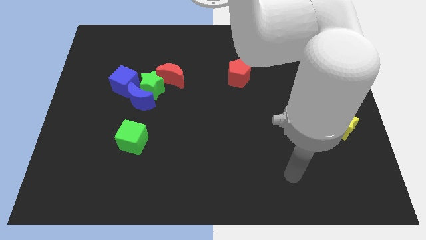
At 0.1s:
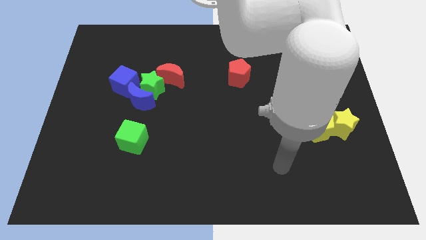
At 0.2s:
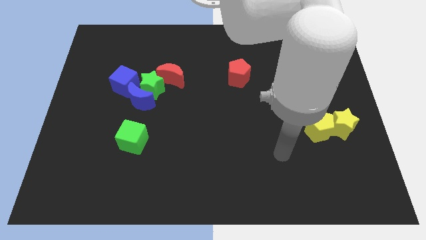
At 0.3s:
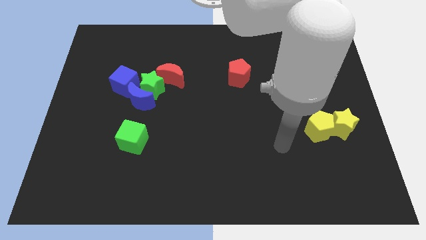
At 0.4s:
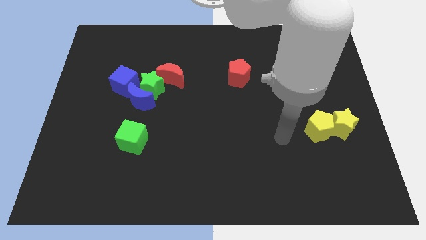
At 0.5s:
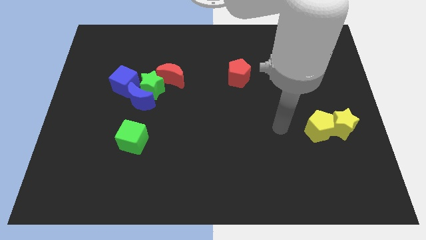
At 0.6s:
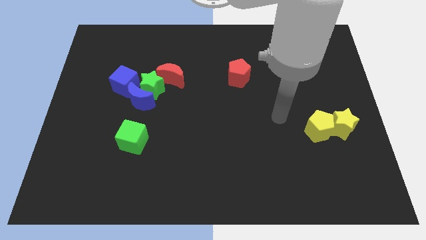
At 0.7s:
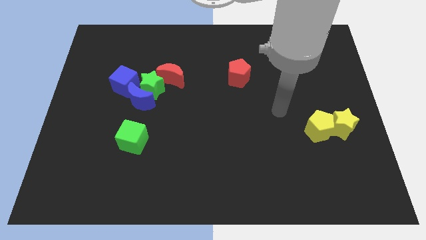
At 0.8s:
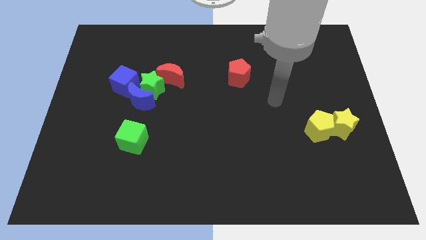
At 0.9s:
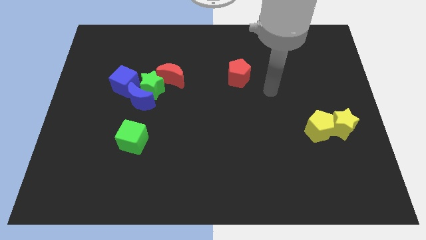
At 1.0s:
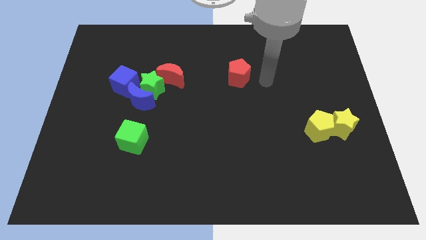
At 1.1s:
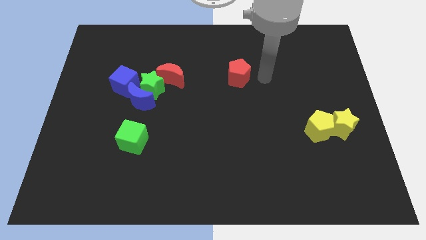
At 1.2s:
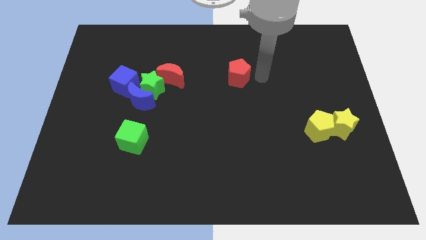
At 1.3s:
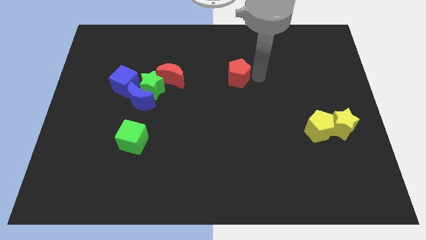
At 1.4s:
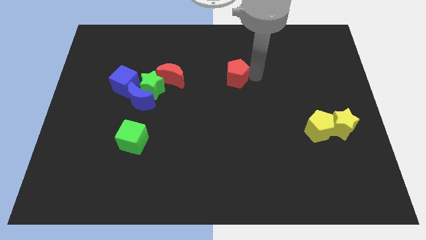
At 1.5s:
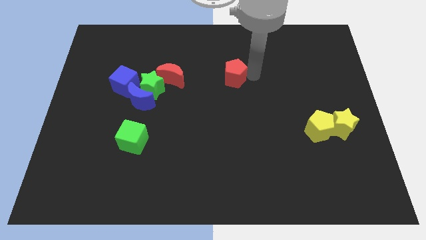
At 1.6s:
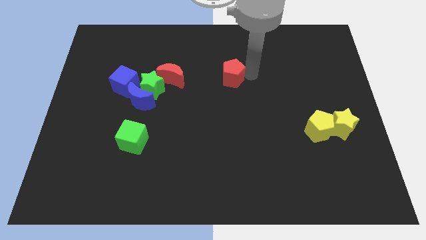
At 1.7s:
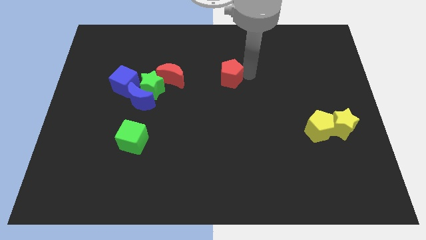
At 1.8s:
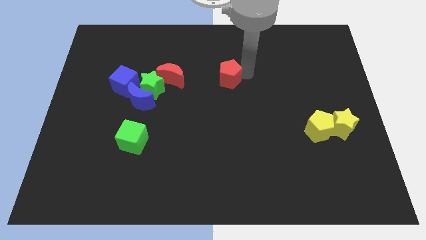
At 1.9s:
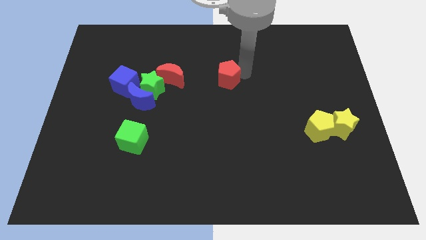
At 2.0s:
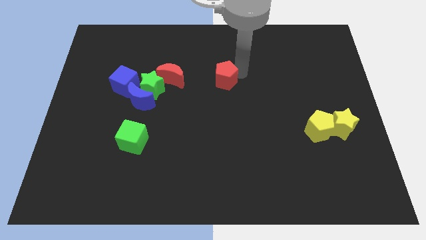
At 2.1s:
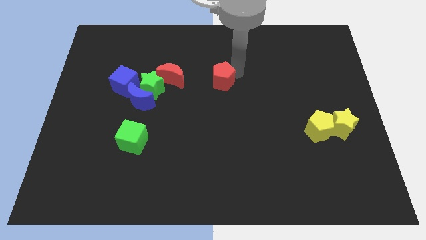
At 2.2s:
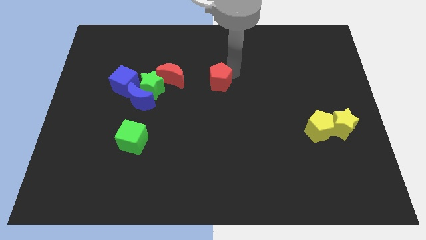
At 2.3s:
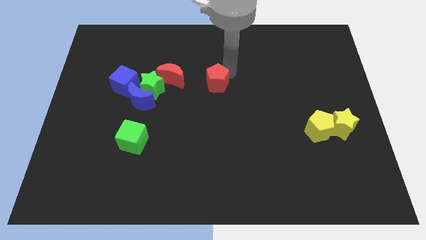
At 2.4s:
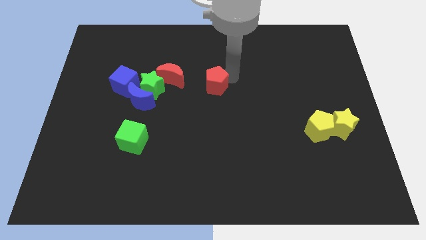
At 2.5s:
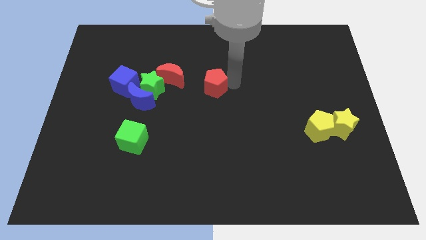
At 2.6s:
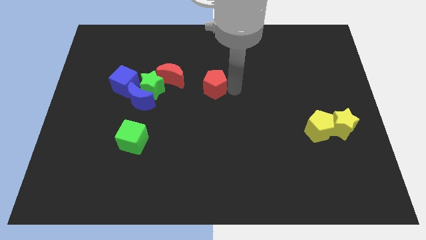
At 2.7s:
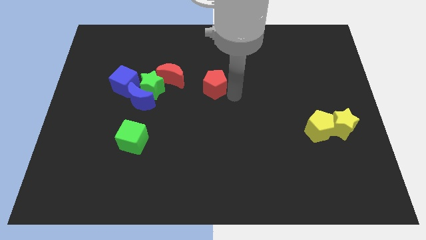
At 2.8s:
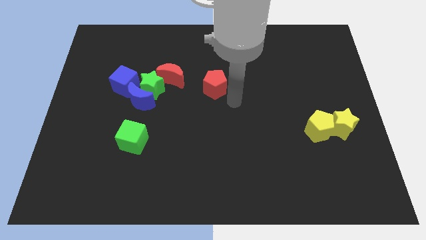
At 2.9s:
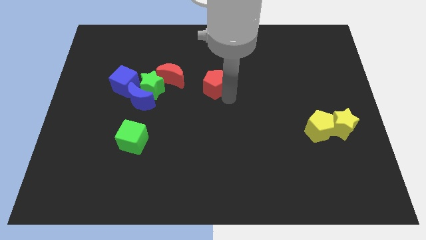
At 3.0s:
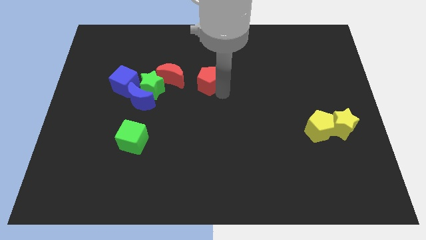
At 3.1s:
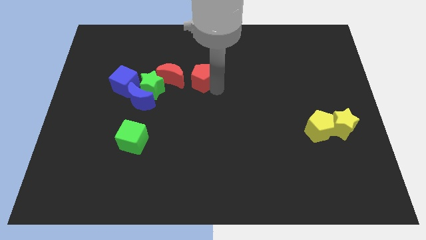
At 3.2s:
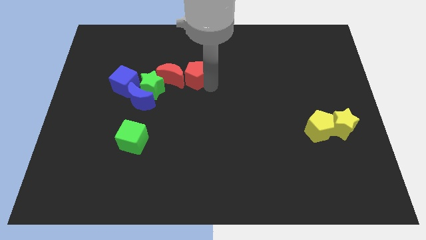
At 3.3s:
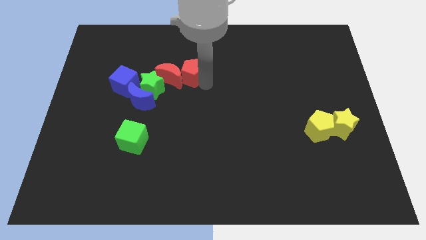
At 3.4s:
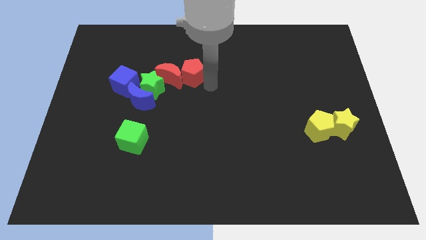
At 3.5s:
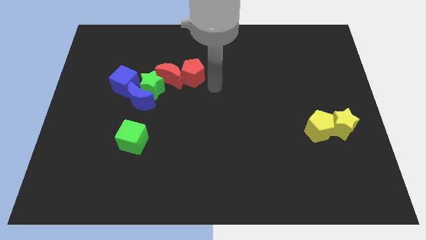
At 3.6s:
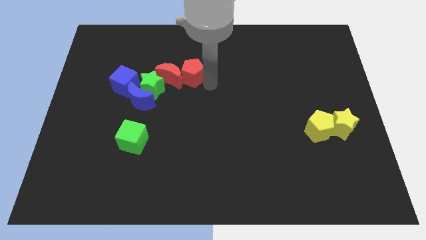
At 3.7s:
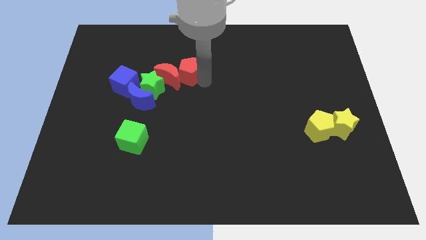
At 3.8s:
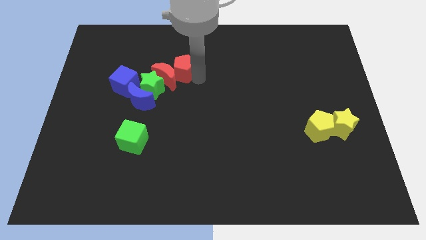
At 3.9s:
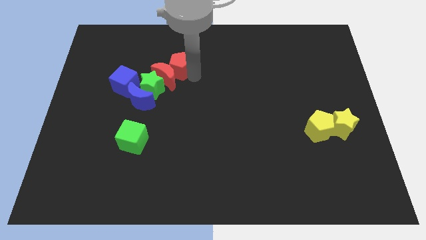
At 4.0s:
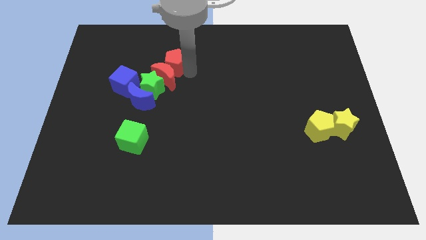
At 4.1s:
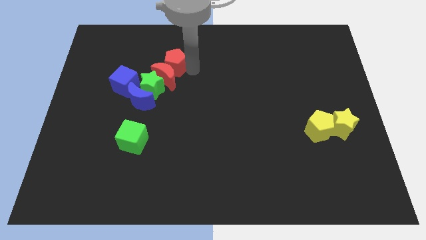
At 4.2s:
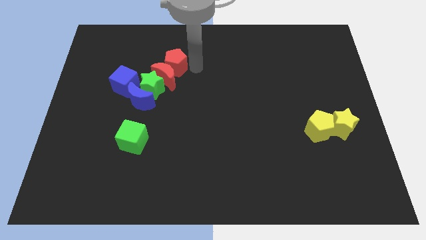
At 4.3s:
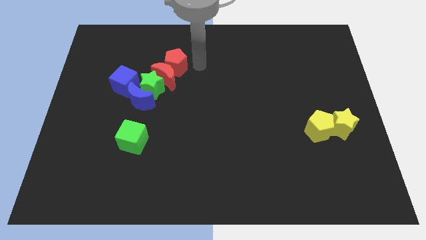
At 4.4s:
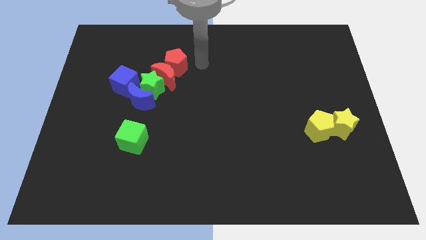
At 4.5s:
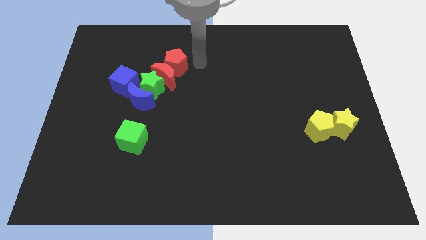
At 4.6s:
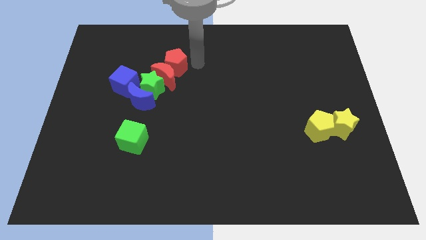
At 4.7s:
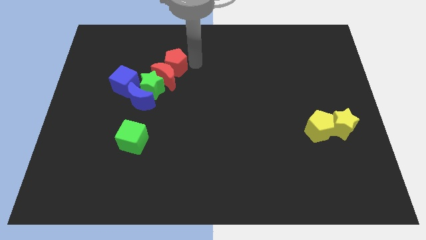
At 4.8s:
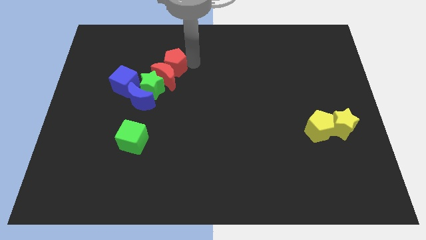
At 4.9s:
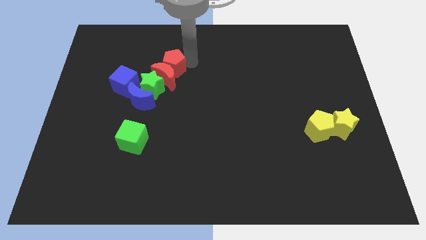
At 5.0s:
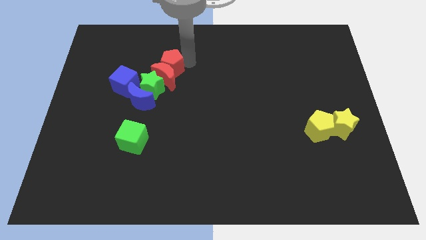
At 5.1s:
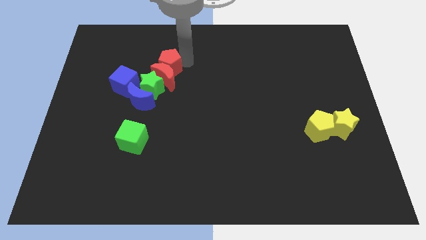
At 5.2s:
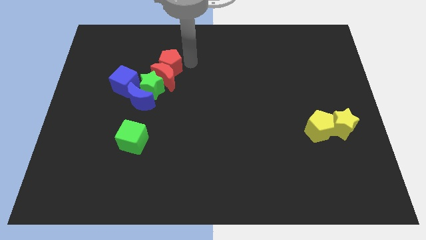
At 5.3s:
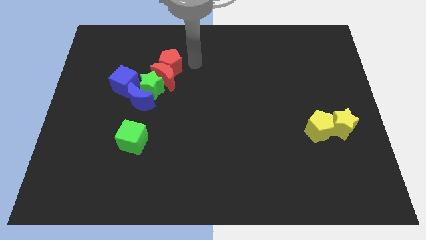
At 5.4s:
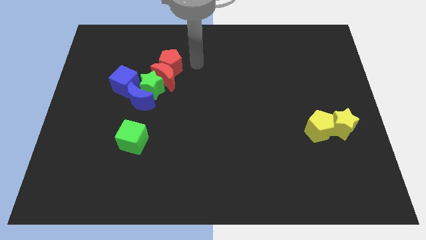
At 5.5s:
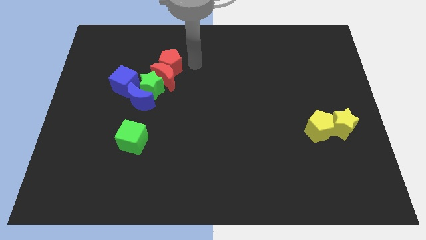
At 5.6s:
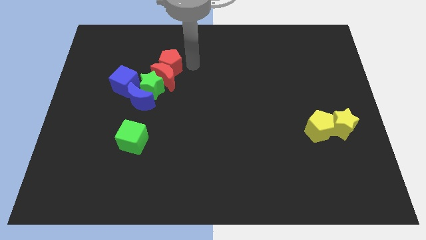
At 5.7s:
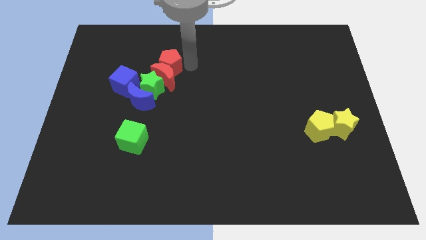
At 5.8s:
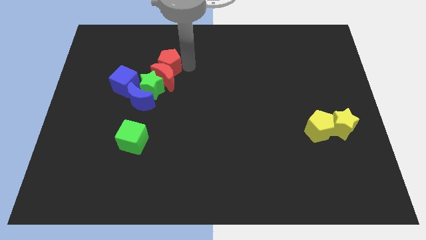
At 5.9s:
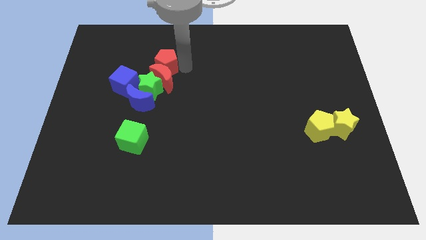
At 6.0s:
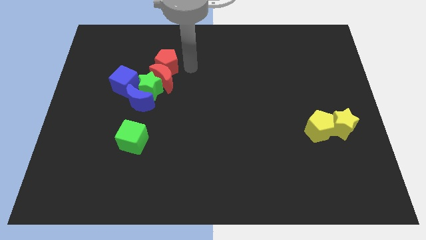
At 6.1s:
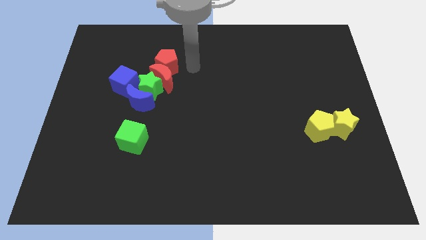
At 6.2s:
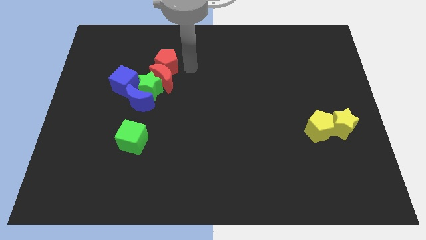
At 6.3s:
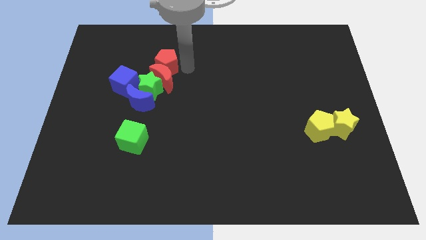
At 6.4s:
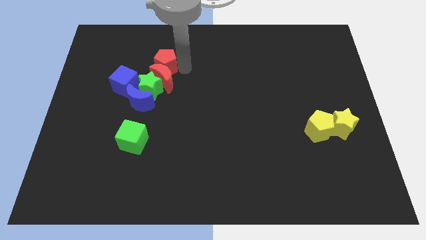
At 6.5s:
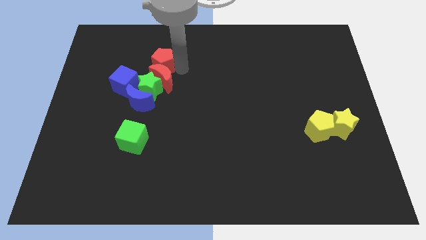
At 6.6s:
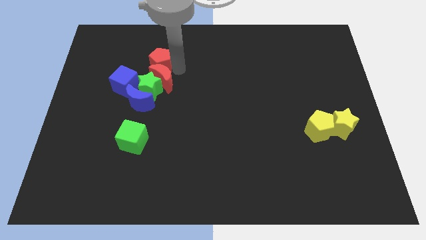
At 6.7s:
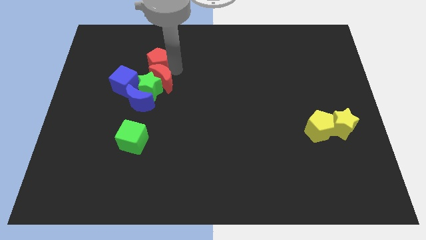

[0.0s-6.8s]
move the red pentagon left

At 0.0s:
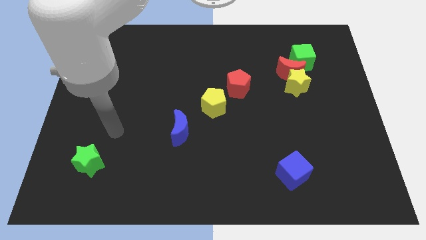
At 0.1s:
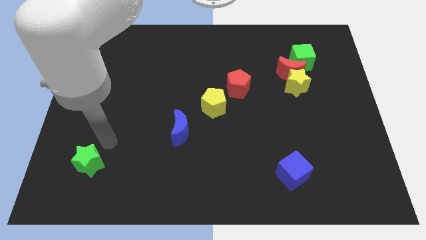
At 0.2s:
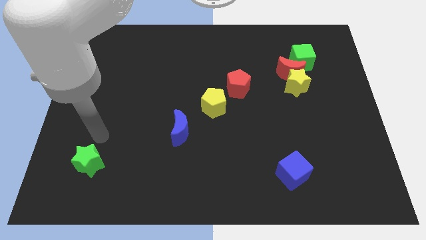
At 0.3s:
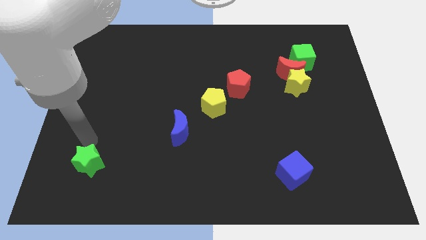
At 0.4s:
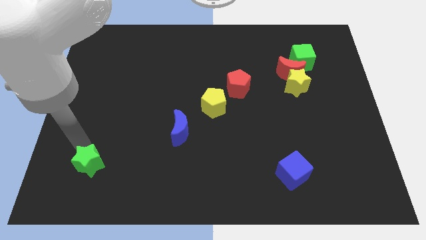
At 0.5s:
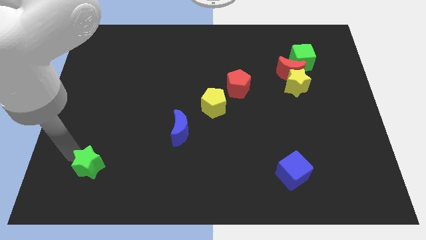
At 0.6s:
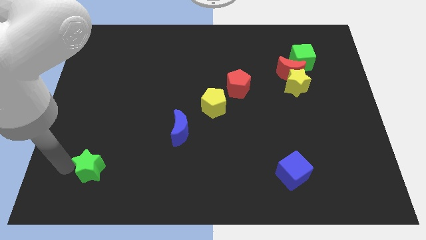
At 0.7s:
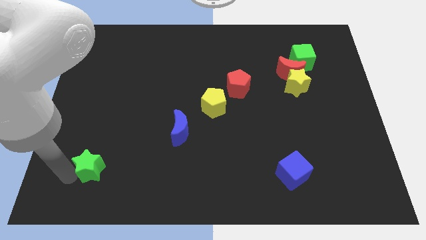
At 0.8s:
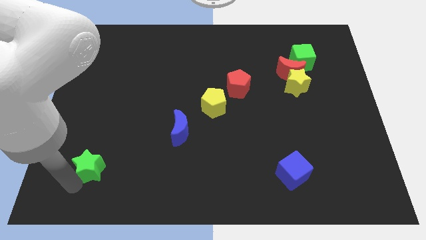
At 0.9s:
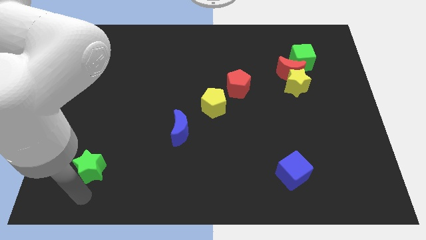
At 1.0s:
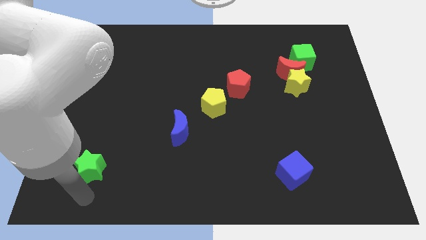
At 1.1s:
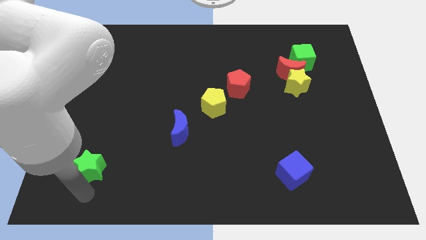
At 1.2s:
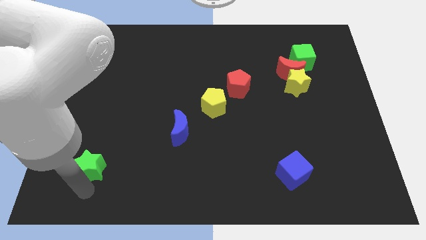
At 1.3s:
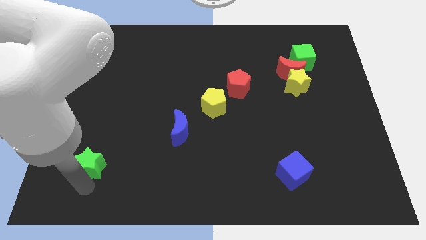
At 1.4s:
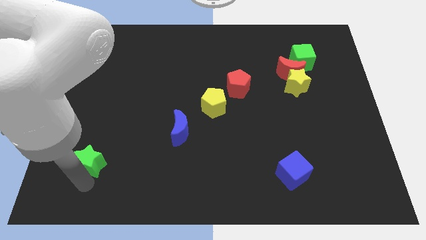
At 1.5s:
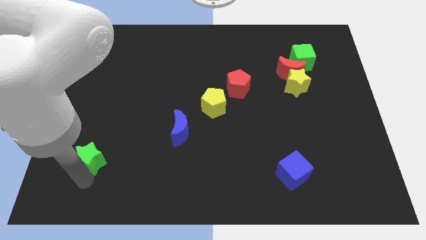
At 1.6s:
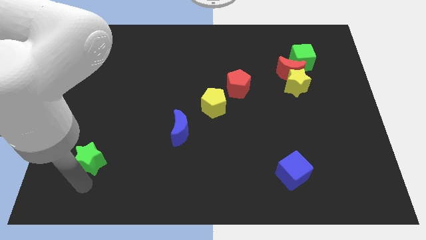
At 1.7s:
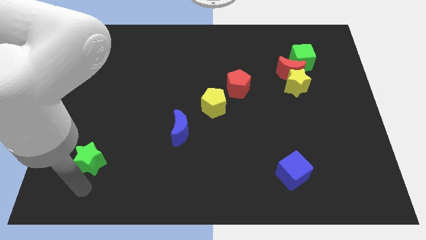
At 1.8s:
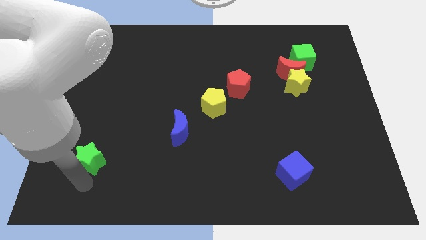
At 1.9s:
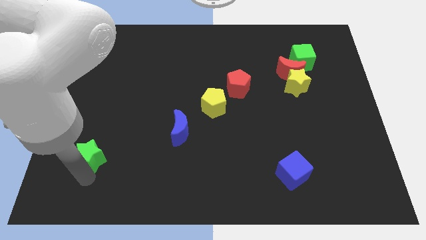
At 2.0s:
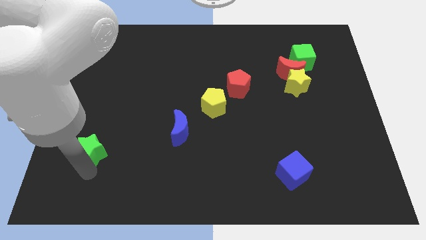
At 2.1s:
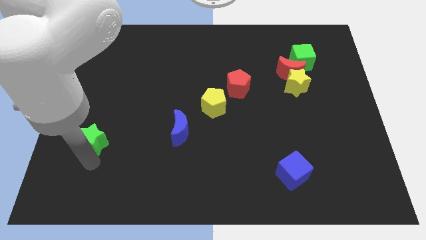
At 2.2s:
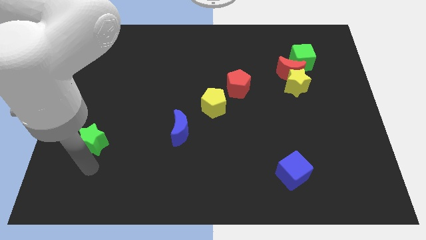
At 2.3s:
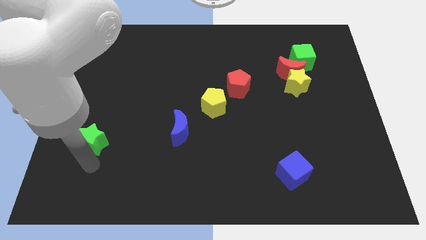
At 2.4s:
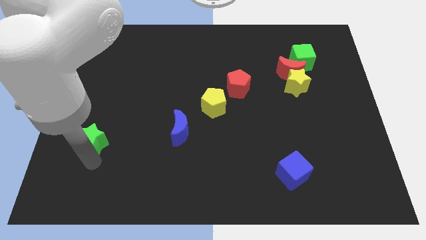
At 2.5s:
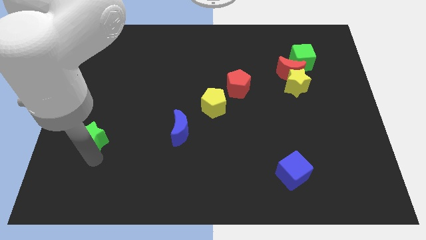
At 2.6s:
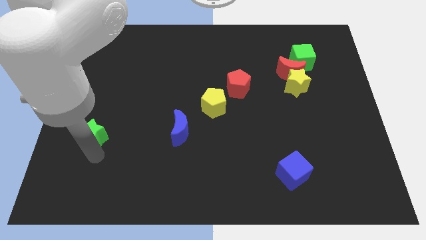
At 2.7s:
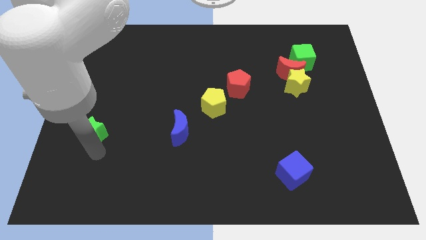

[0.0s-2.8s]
slide the green star somewhat upwards
